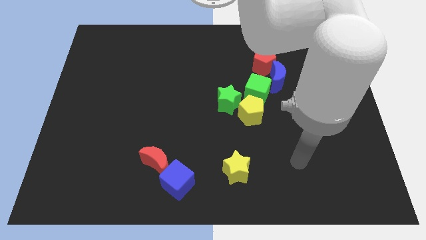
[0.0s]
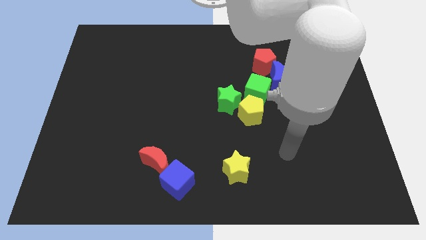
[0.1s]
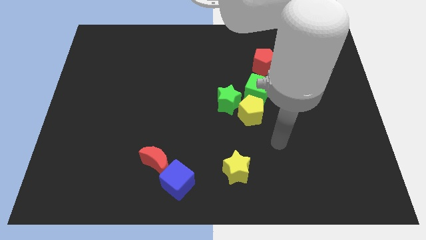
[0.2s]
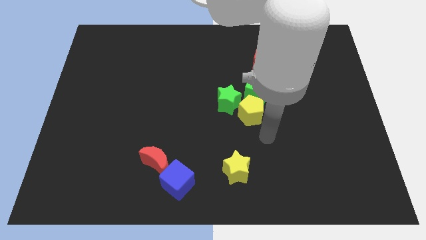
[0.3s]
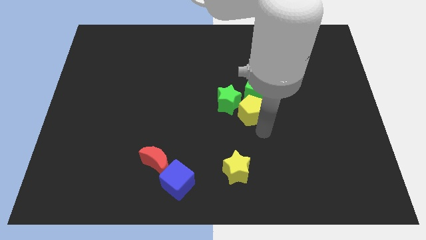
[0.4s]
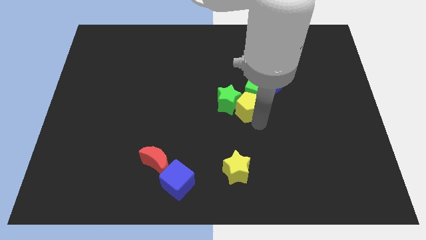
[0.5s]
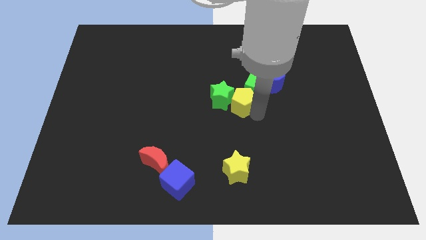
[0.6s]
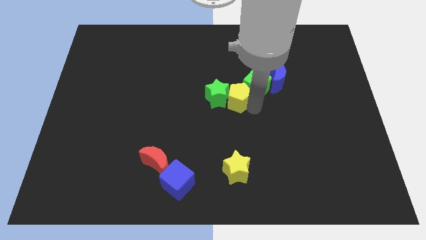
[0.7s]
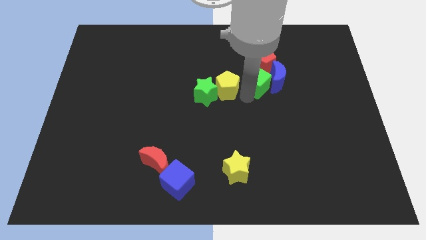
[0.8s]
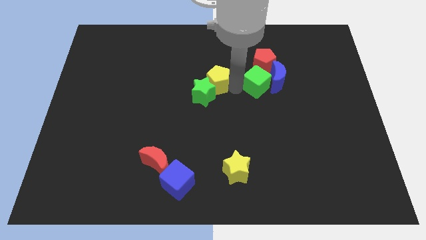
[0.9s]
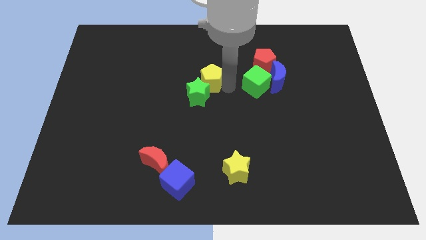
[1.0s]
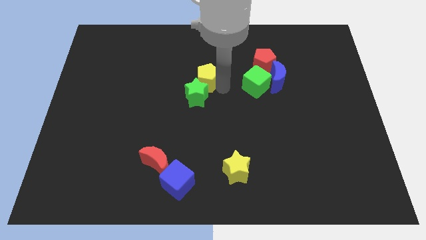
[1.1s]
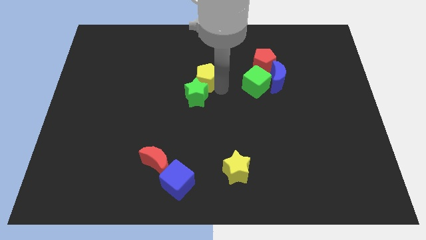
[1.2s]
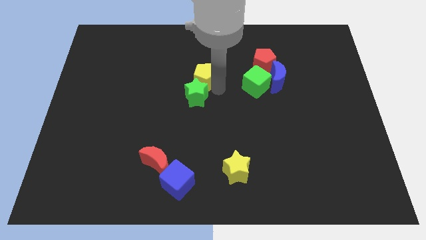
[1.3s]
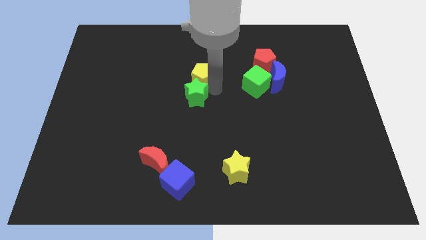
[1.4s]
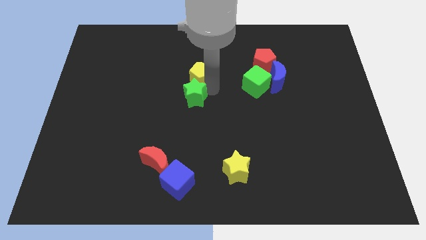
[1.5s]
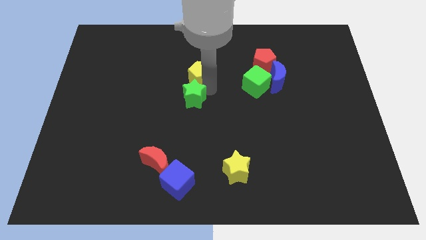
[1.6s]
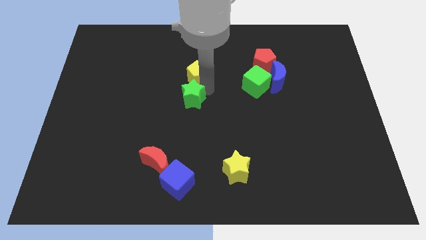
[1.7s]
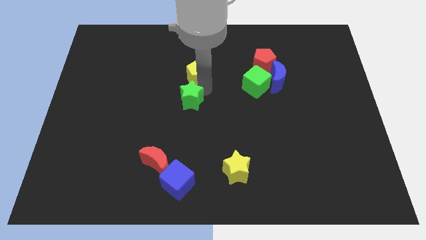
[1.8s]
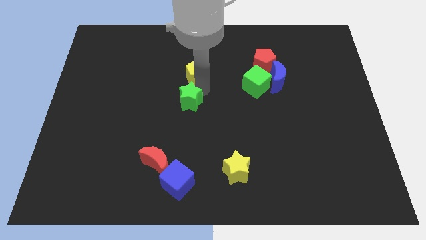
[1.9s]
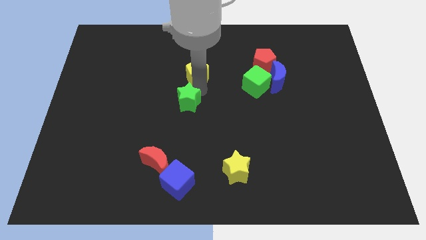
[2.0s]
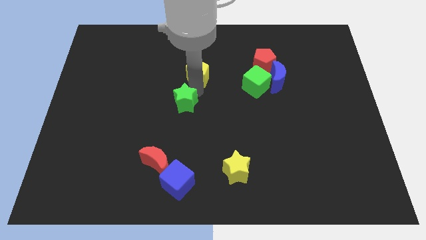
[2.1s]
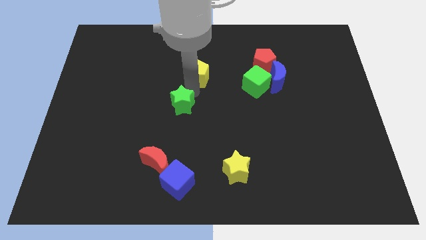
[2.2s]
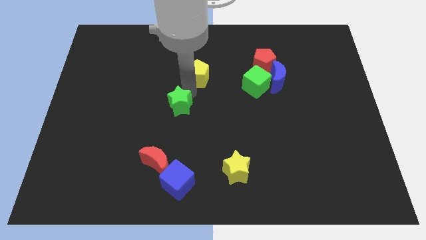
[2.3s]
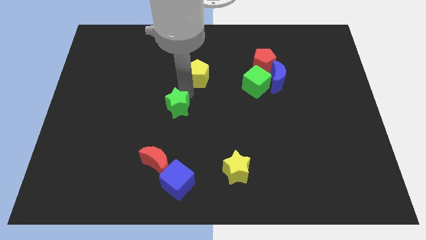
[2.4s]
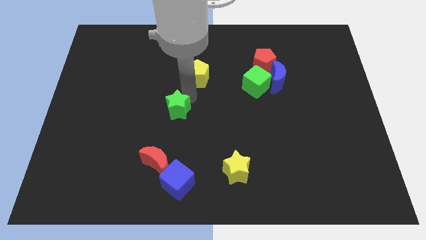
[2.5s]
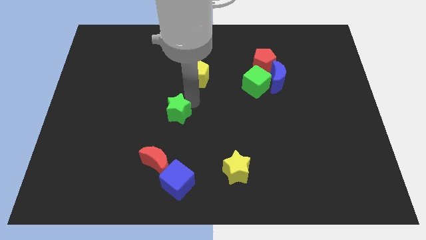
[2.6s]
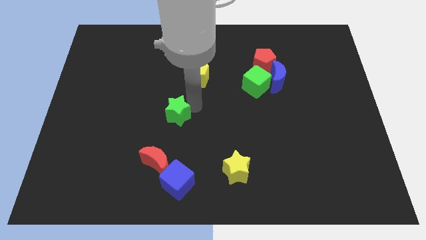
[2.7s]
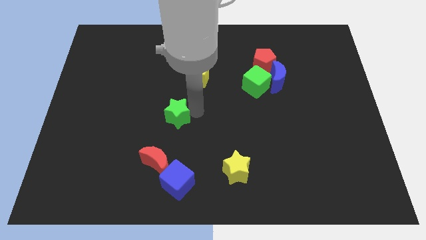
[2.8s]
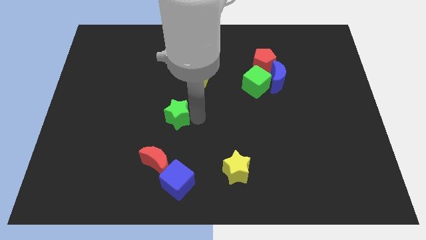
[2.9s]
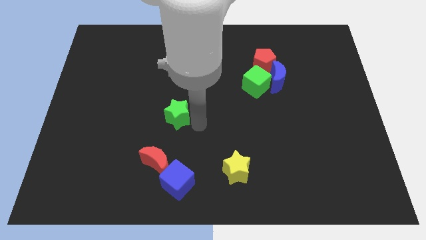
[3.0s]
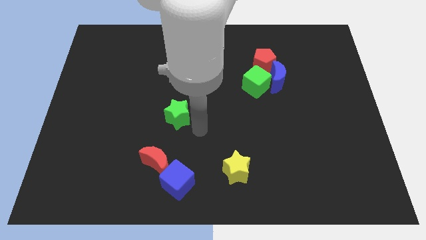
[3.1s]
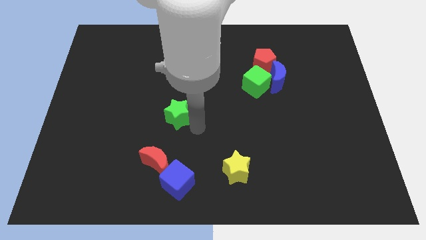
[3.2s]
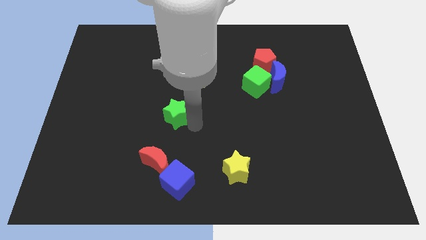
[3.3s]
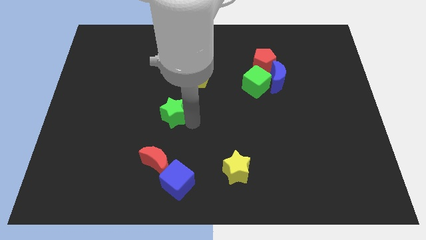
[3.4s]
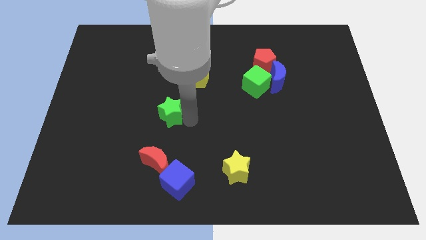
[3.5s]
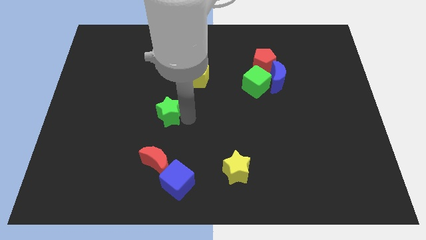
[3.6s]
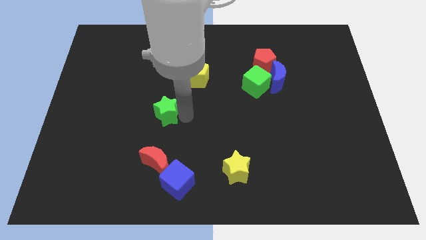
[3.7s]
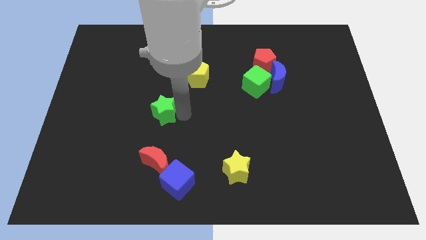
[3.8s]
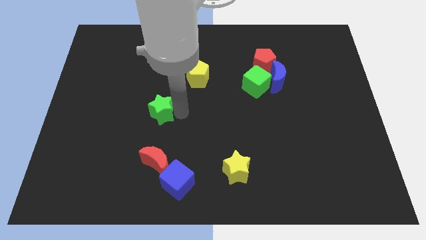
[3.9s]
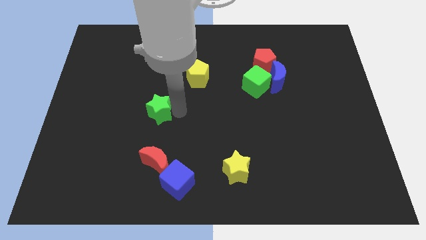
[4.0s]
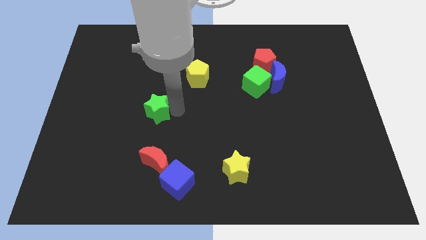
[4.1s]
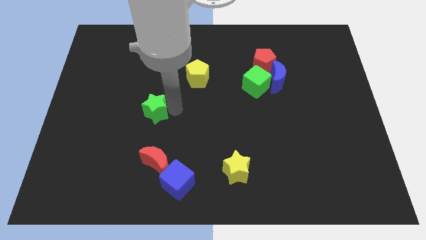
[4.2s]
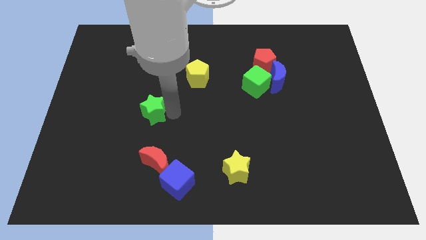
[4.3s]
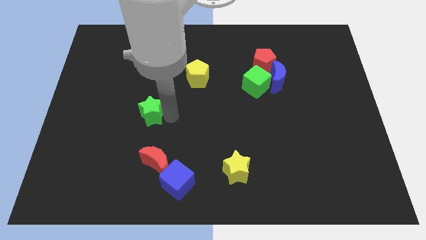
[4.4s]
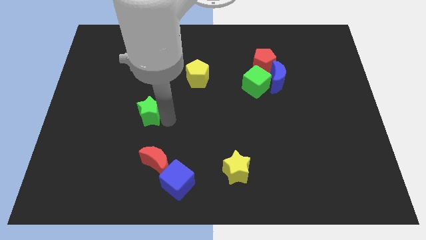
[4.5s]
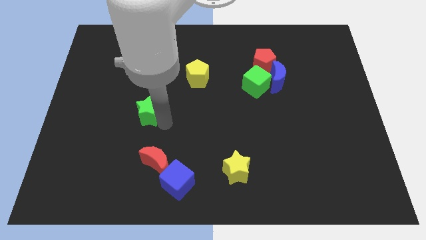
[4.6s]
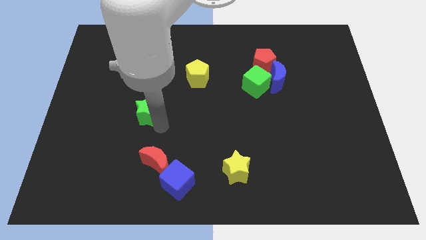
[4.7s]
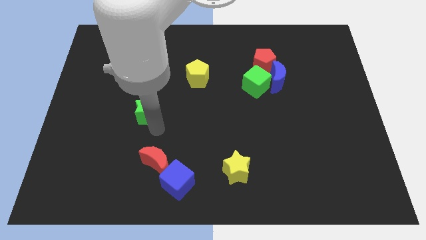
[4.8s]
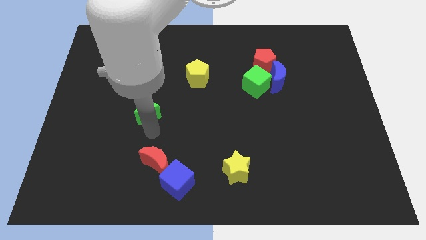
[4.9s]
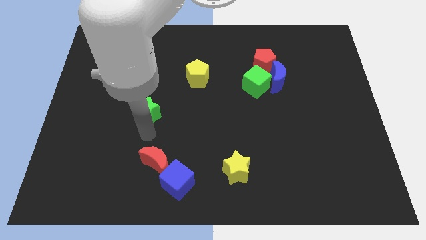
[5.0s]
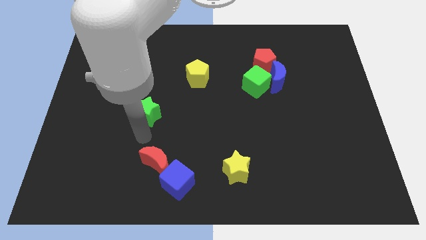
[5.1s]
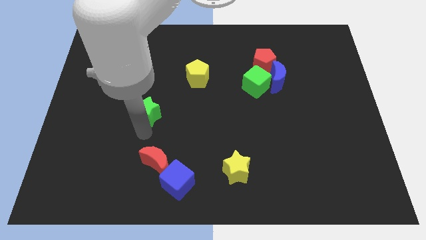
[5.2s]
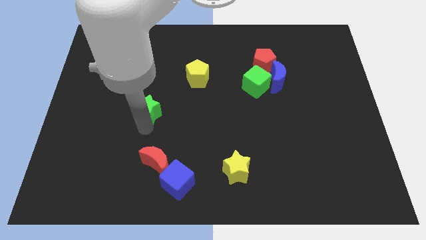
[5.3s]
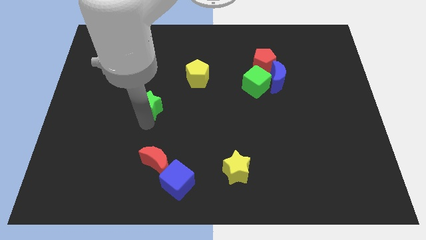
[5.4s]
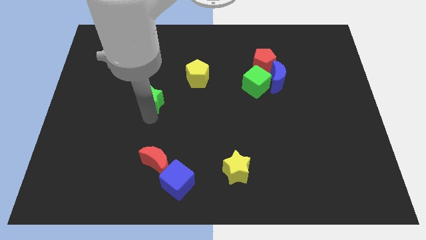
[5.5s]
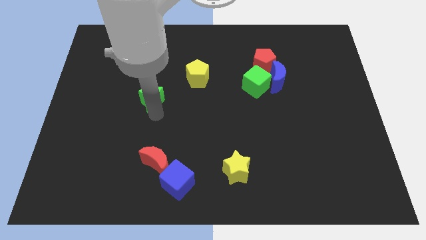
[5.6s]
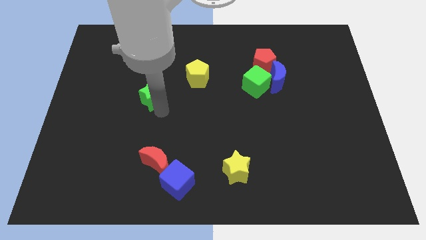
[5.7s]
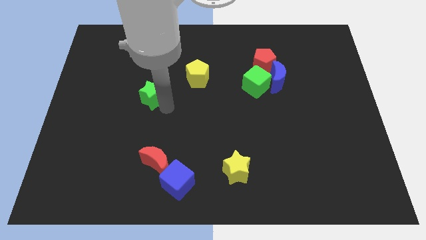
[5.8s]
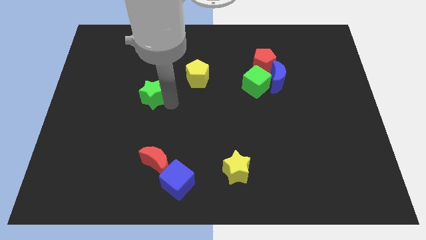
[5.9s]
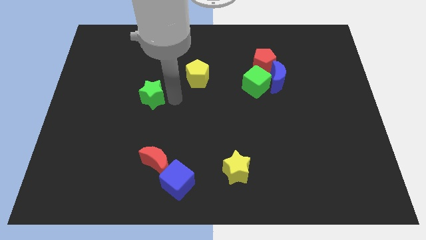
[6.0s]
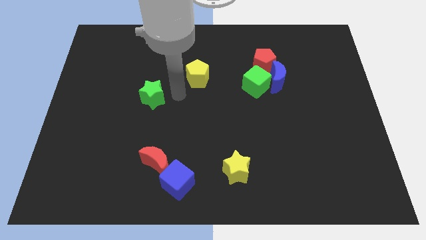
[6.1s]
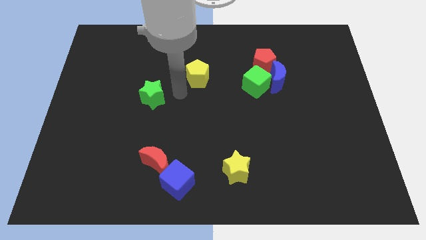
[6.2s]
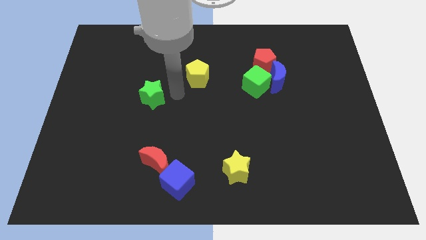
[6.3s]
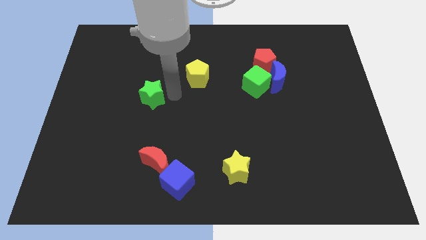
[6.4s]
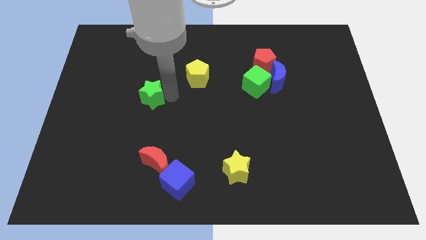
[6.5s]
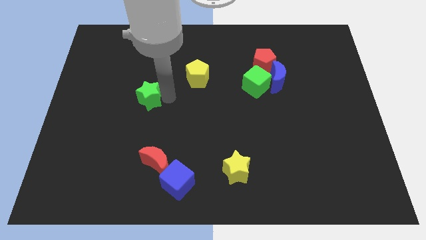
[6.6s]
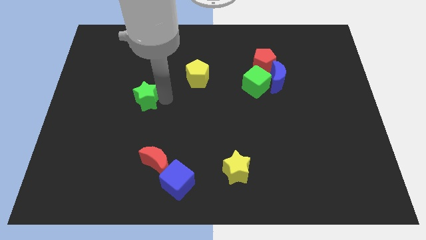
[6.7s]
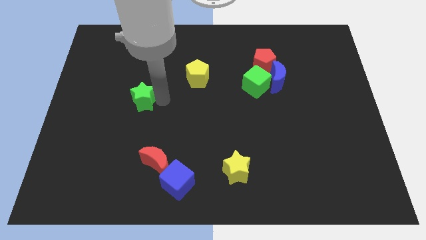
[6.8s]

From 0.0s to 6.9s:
slide the green star to the left

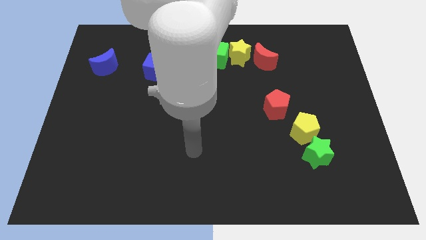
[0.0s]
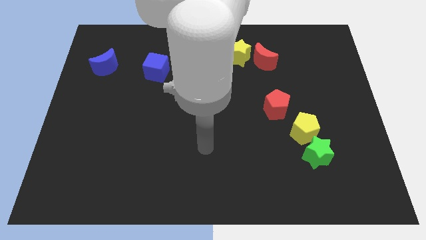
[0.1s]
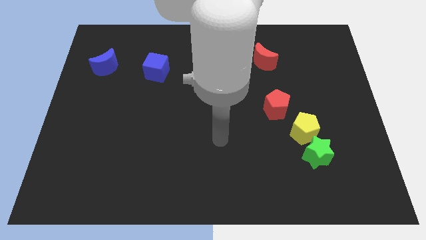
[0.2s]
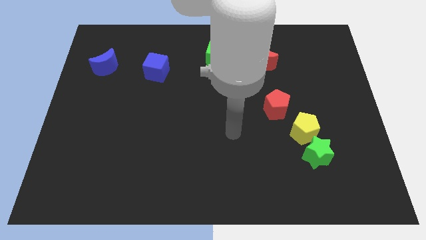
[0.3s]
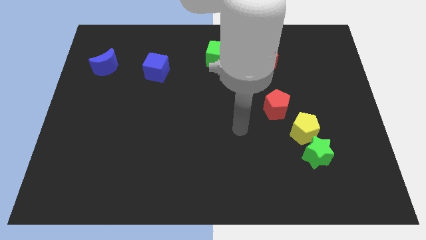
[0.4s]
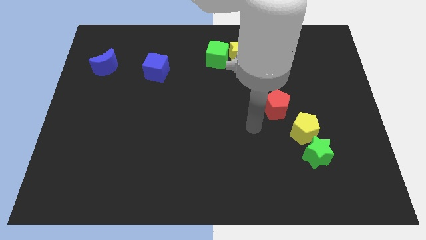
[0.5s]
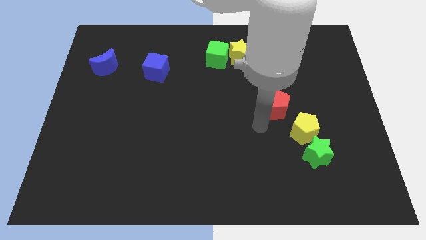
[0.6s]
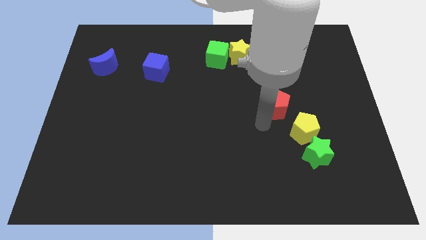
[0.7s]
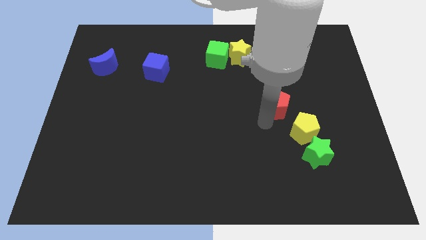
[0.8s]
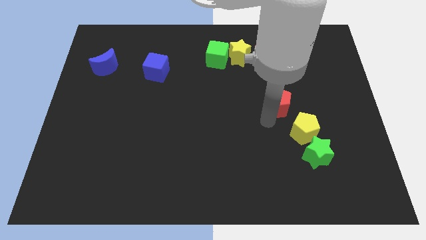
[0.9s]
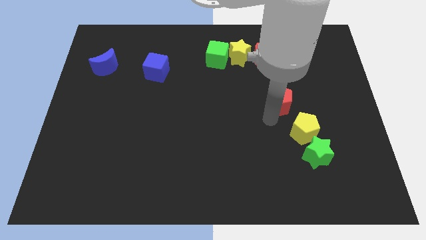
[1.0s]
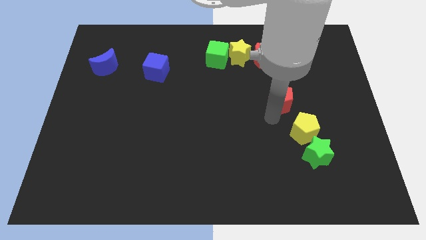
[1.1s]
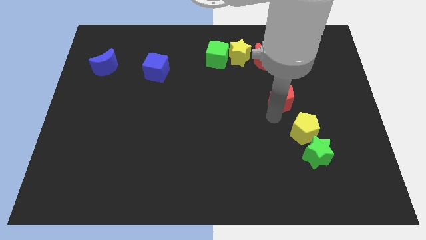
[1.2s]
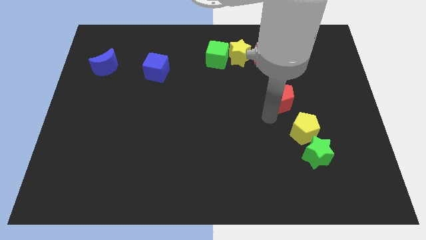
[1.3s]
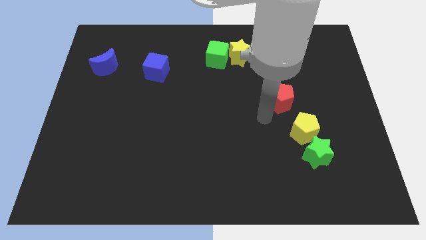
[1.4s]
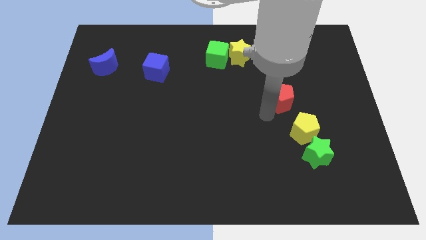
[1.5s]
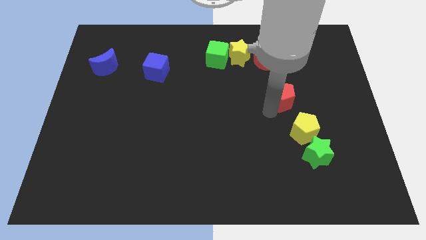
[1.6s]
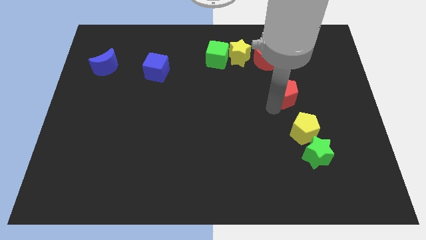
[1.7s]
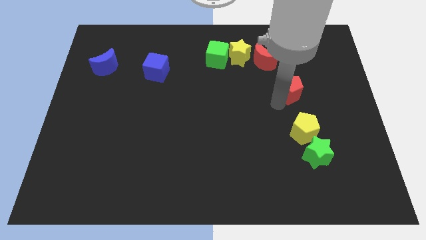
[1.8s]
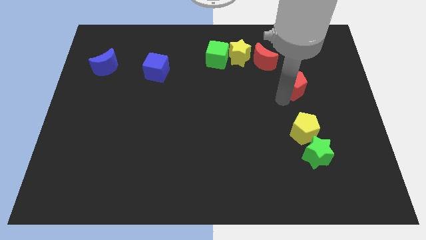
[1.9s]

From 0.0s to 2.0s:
slightly push the red pentagon upwards and then right
